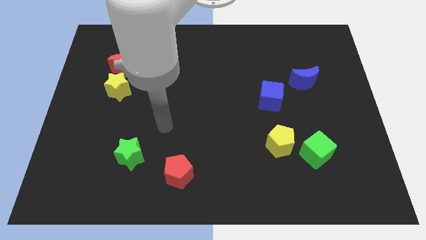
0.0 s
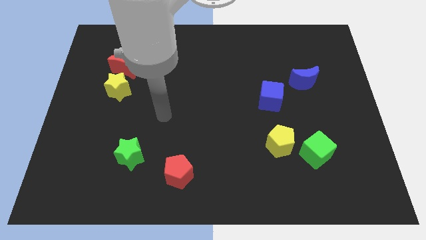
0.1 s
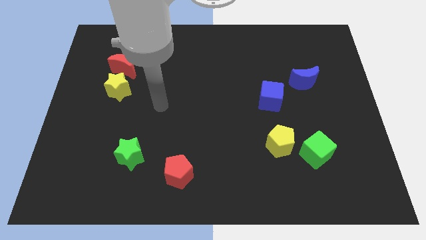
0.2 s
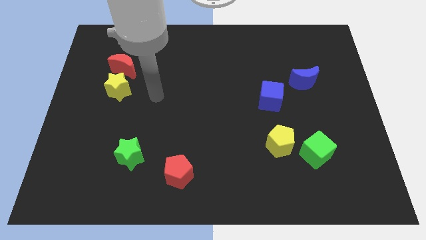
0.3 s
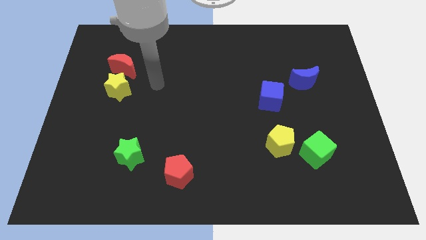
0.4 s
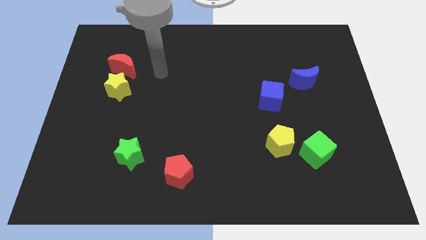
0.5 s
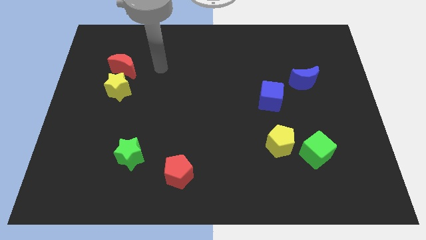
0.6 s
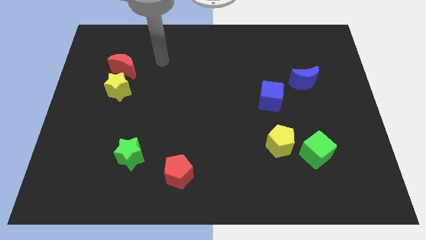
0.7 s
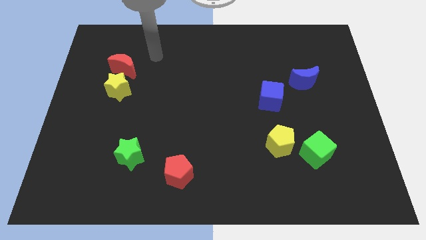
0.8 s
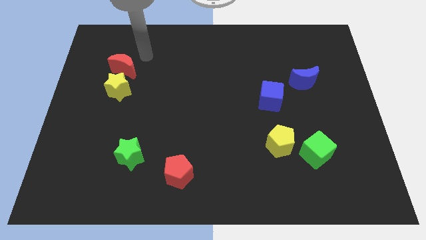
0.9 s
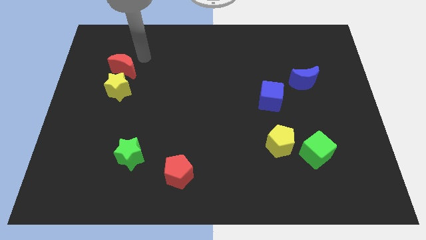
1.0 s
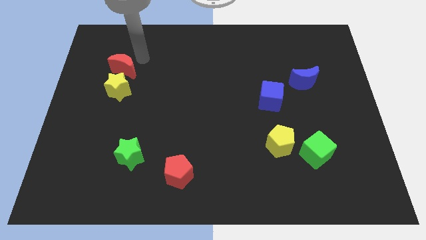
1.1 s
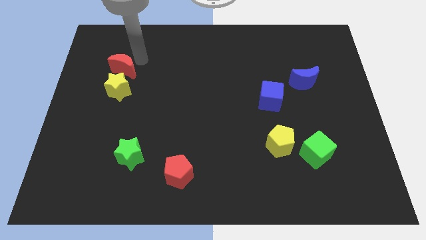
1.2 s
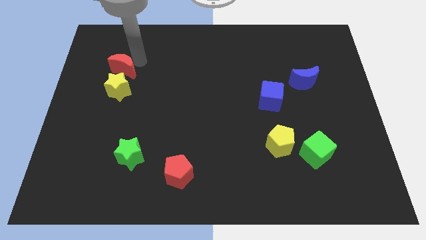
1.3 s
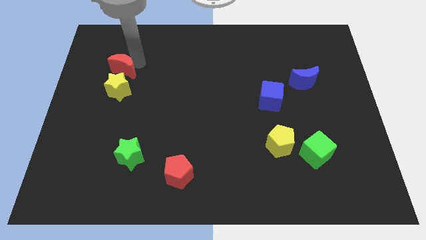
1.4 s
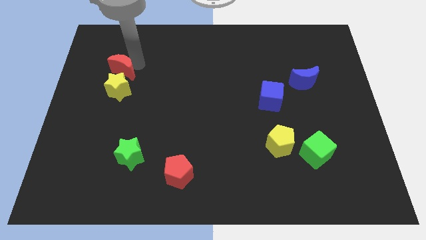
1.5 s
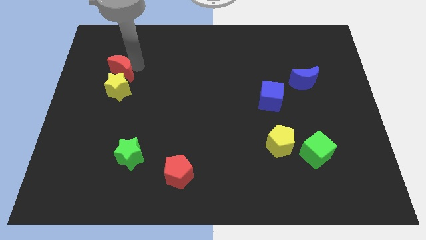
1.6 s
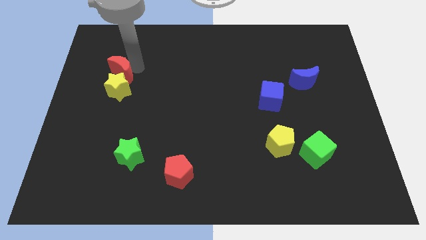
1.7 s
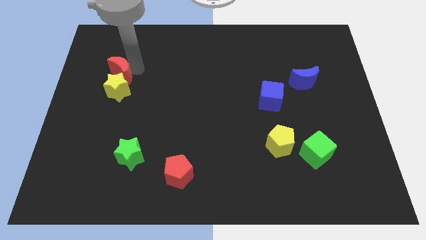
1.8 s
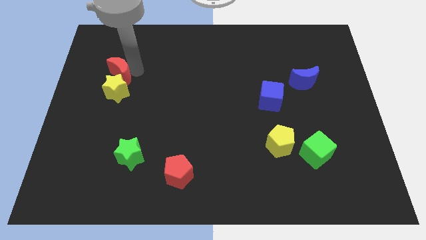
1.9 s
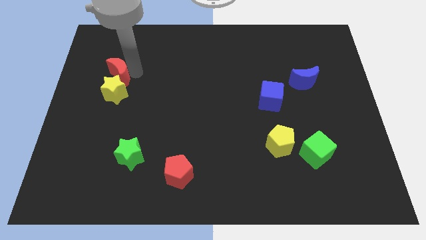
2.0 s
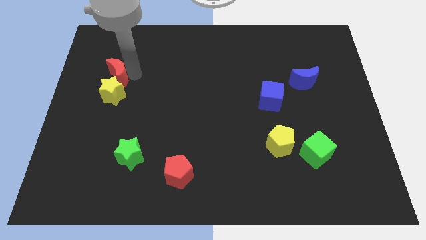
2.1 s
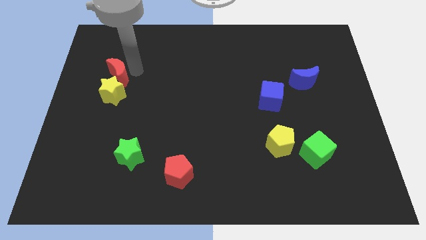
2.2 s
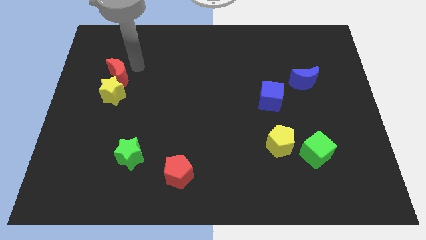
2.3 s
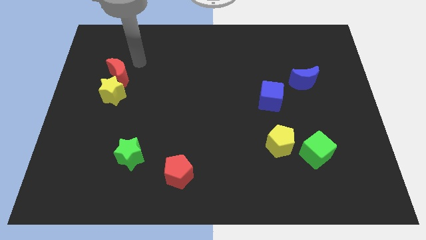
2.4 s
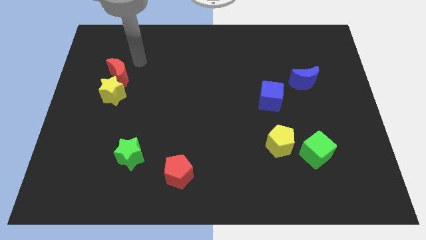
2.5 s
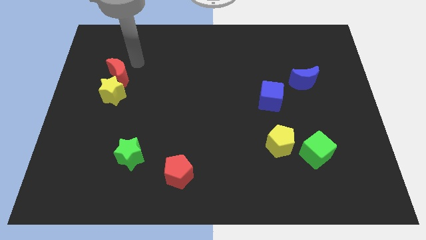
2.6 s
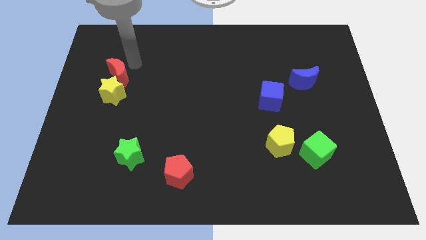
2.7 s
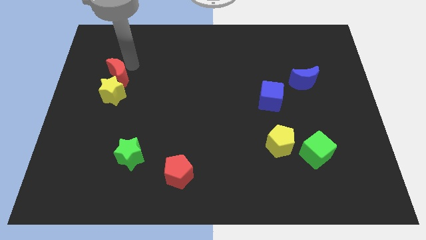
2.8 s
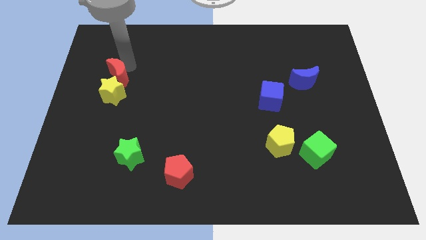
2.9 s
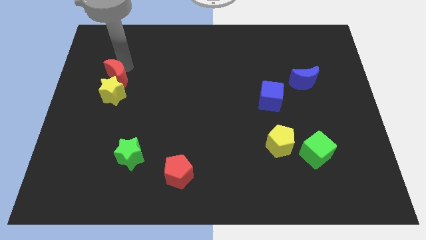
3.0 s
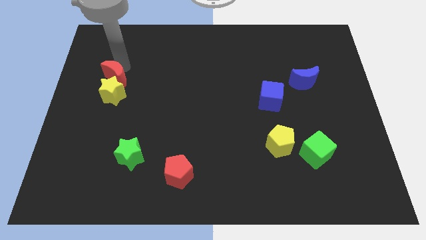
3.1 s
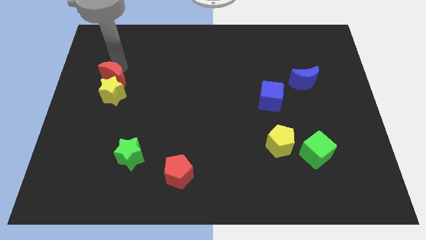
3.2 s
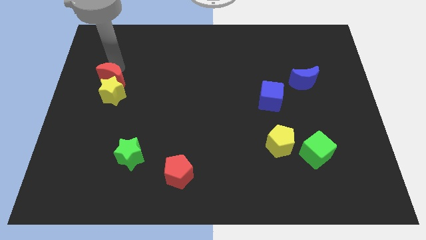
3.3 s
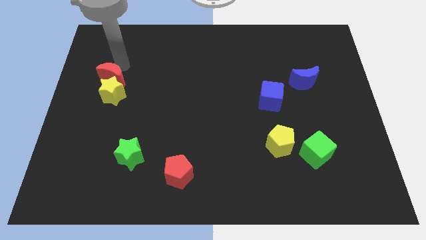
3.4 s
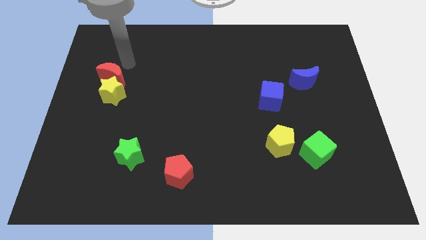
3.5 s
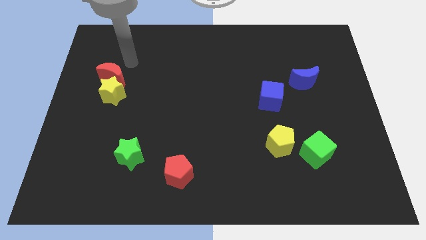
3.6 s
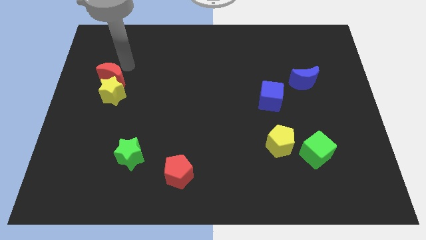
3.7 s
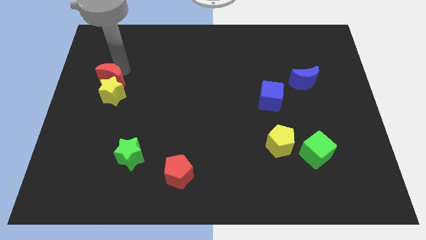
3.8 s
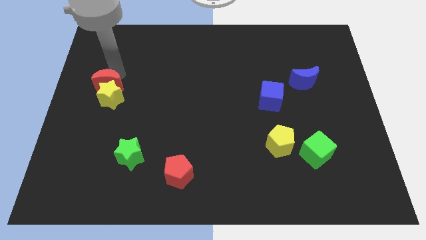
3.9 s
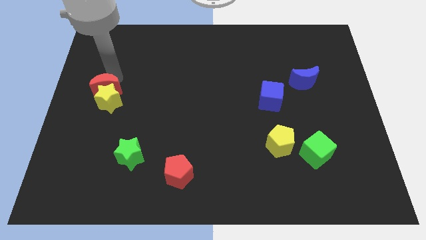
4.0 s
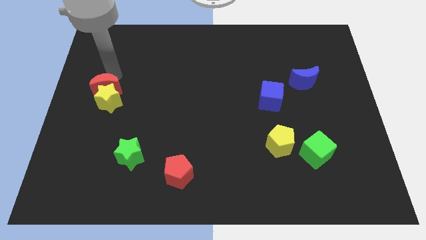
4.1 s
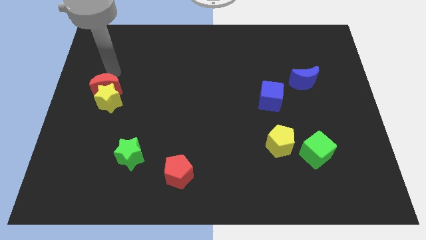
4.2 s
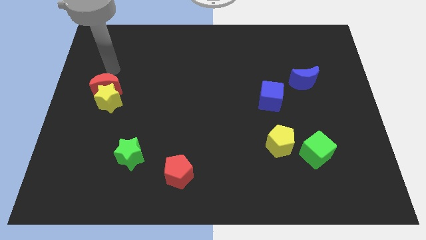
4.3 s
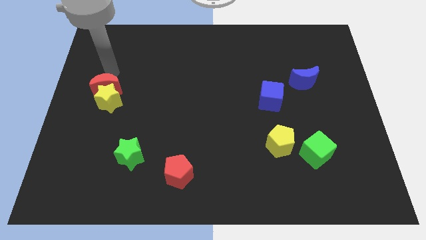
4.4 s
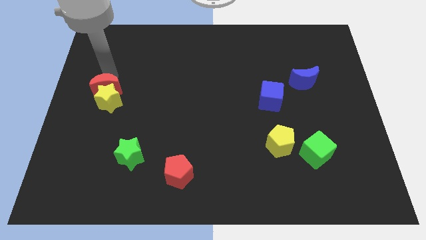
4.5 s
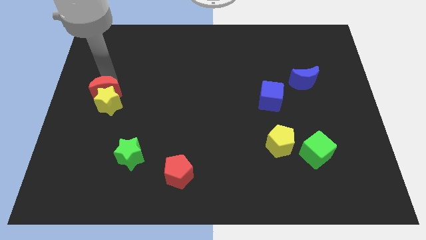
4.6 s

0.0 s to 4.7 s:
push the red moon down slightly

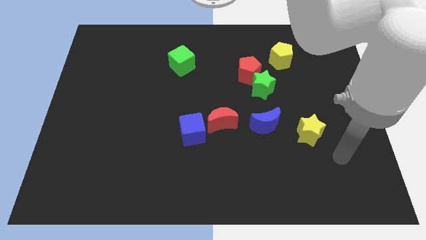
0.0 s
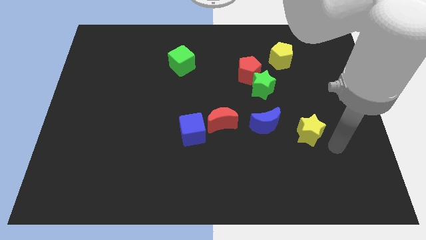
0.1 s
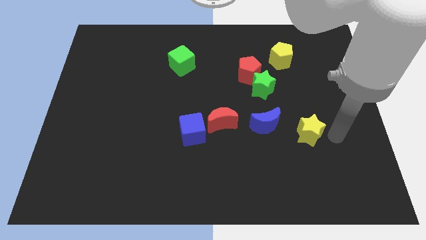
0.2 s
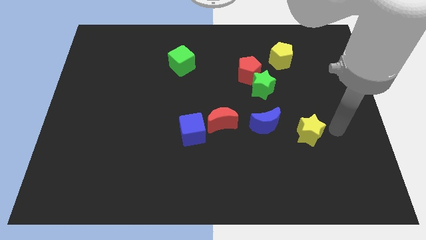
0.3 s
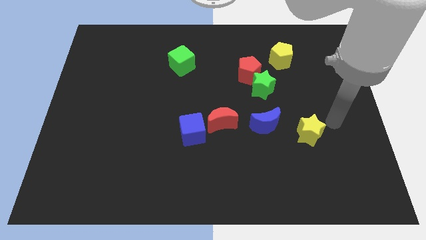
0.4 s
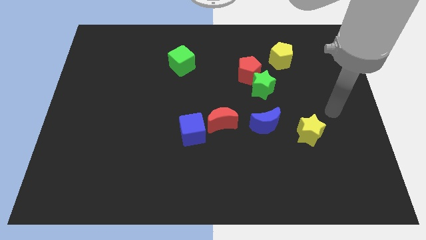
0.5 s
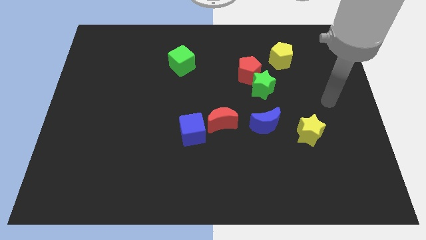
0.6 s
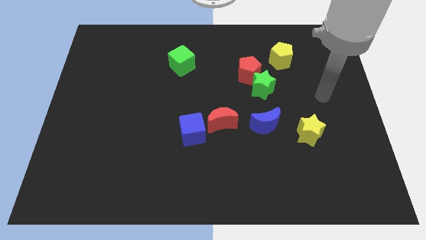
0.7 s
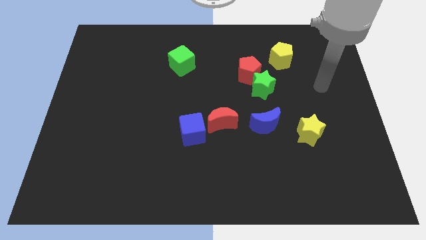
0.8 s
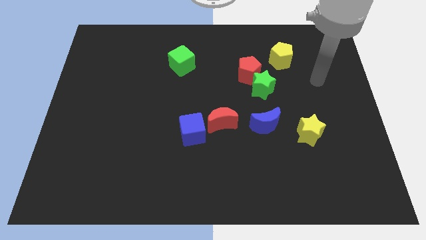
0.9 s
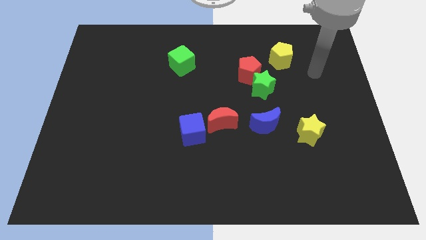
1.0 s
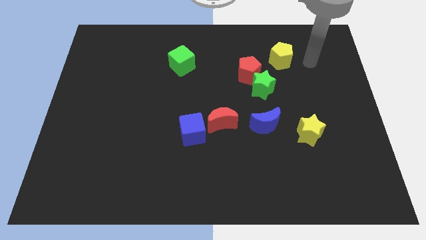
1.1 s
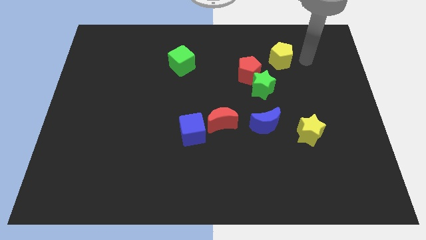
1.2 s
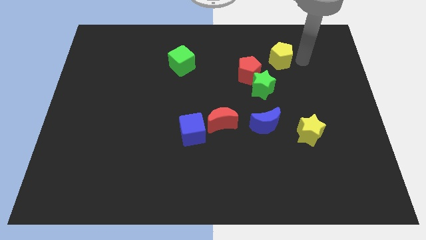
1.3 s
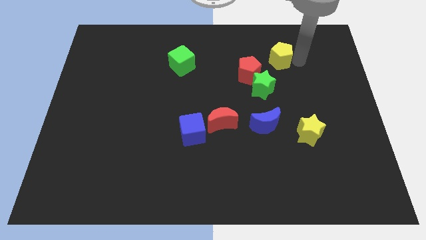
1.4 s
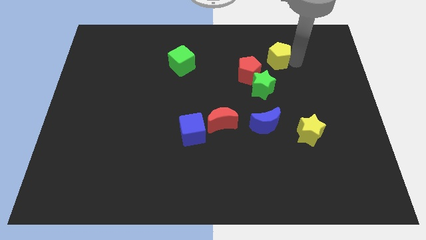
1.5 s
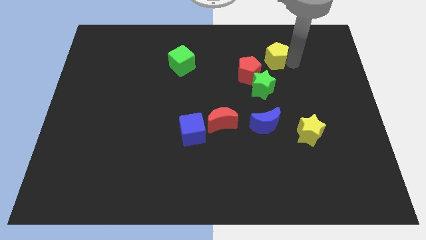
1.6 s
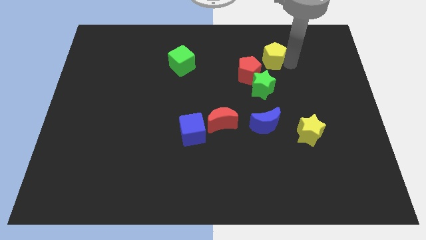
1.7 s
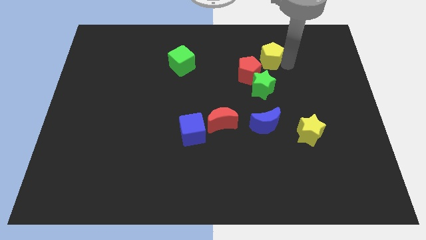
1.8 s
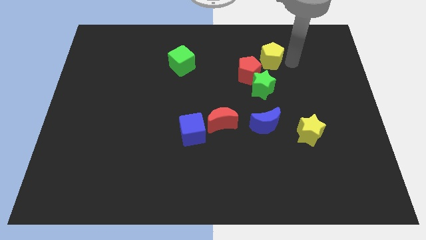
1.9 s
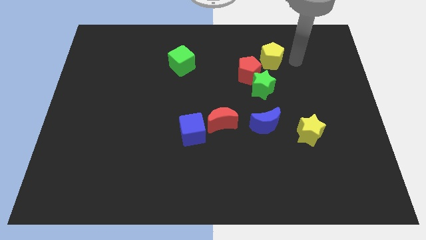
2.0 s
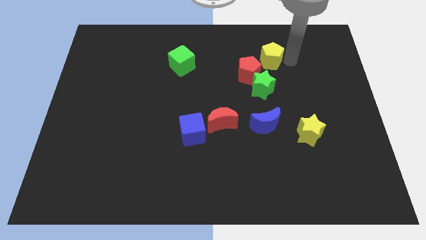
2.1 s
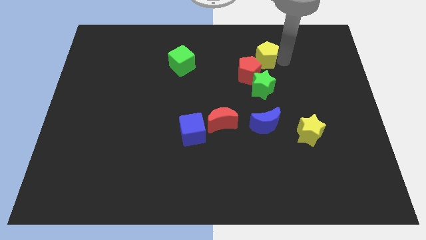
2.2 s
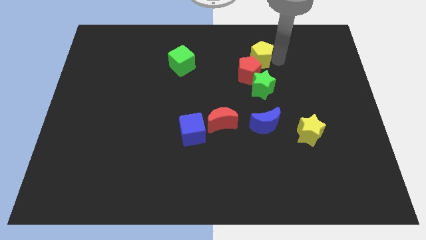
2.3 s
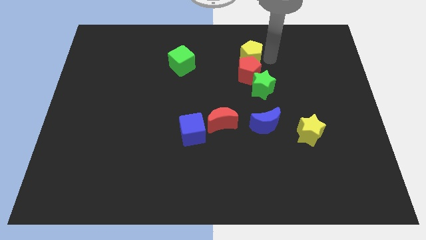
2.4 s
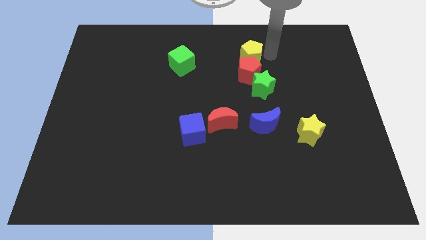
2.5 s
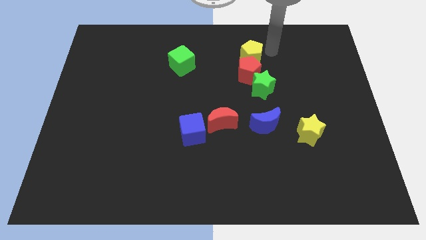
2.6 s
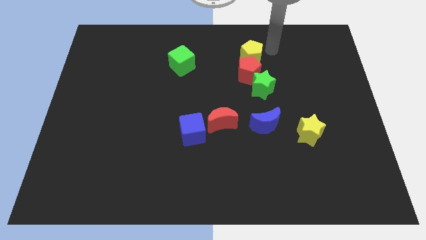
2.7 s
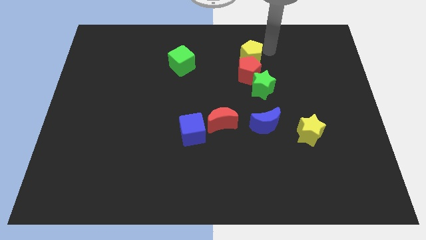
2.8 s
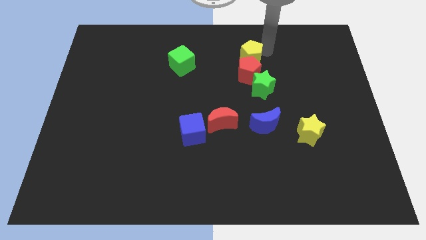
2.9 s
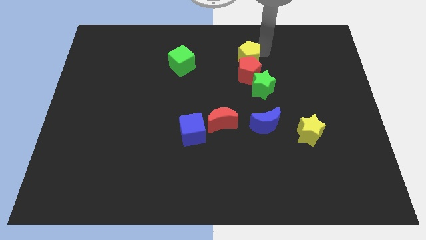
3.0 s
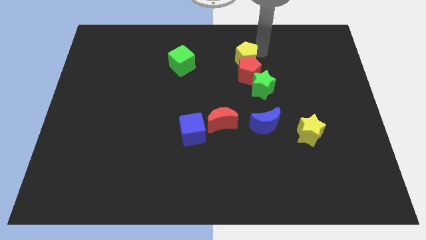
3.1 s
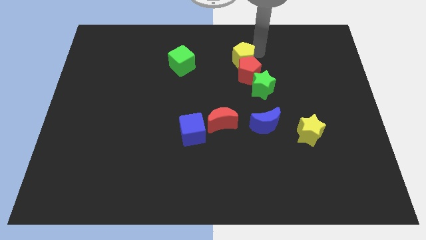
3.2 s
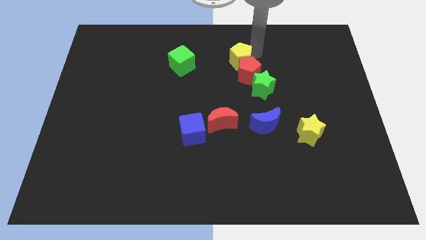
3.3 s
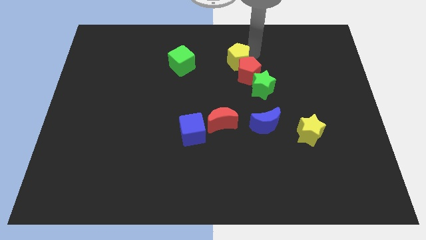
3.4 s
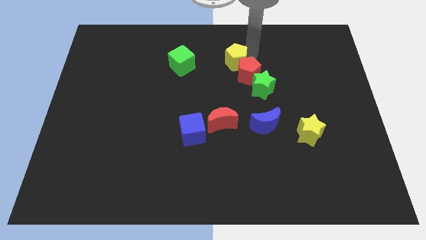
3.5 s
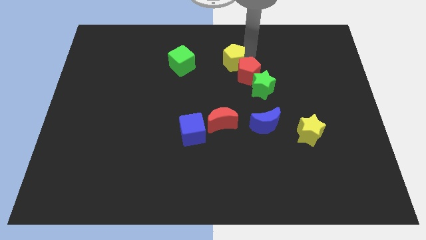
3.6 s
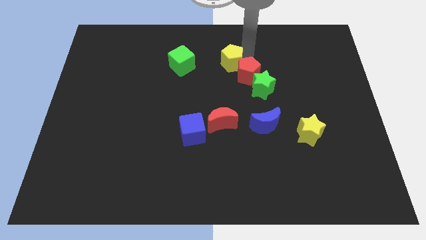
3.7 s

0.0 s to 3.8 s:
move the yellow pentagon somewhat downwards and to the left
